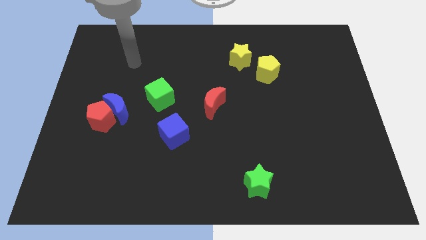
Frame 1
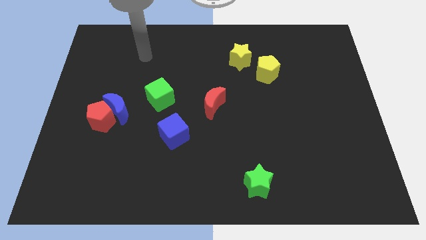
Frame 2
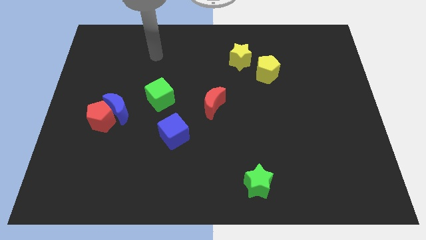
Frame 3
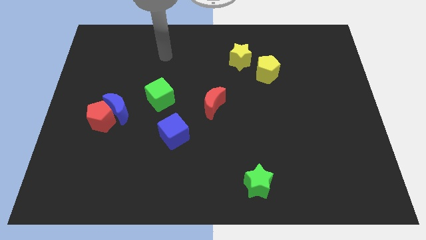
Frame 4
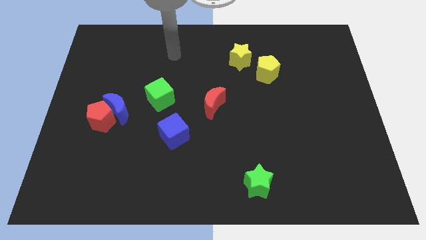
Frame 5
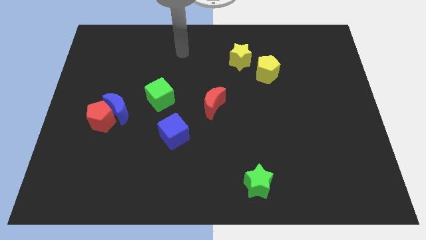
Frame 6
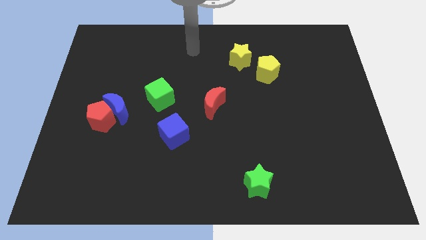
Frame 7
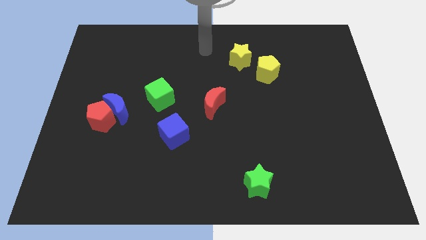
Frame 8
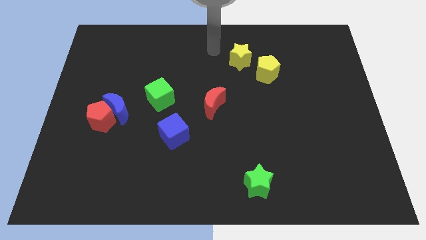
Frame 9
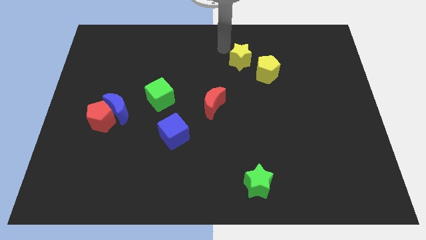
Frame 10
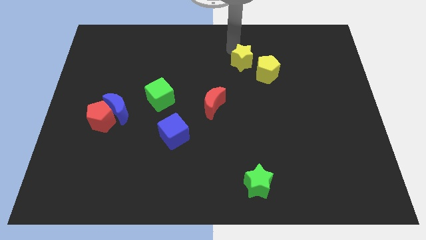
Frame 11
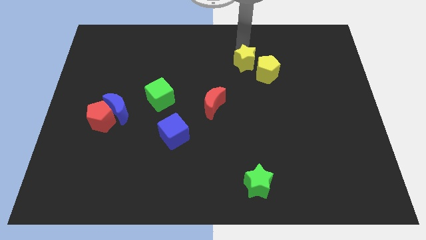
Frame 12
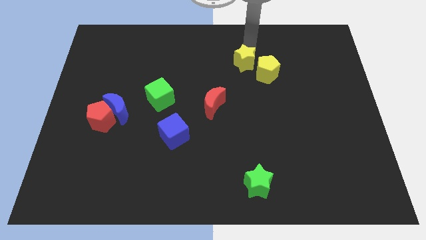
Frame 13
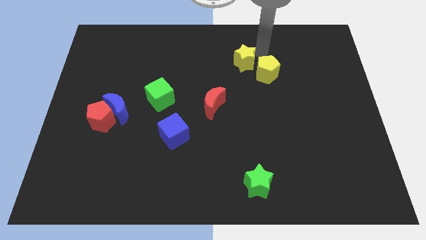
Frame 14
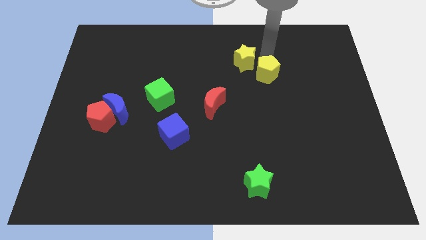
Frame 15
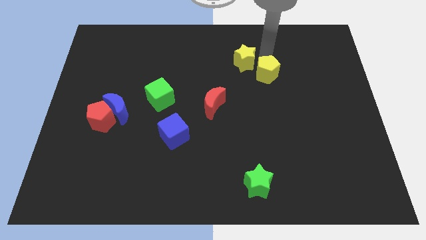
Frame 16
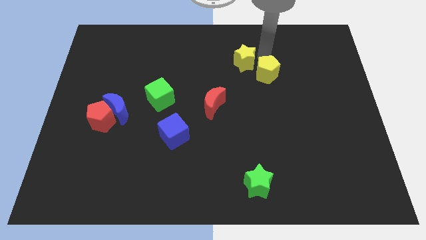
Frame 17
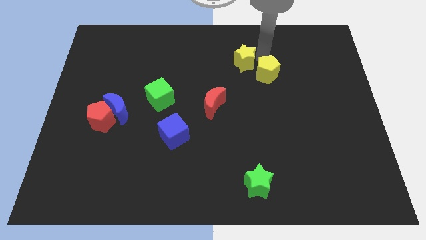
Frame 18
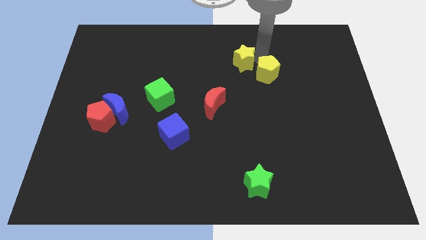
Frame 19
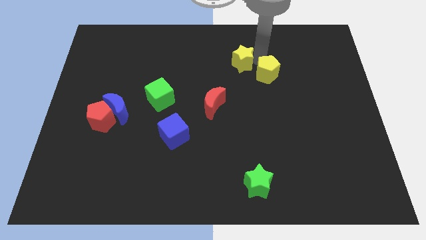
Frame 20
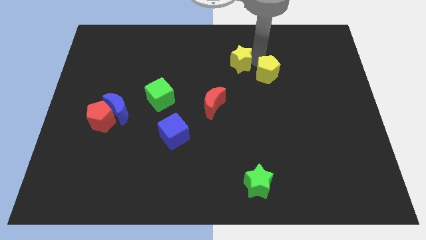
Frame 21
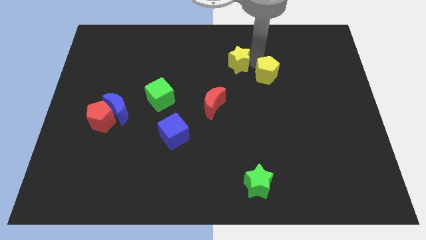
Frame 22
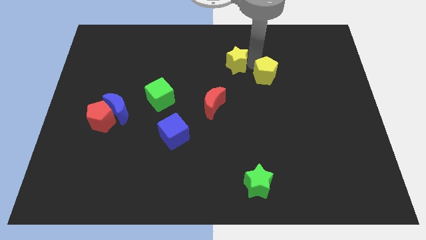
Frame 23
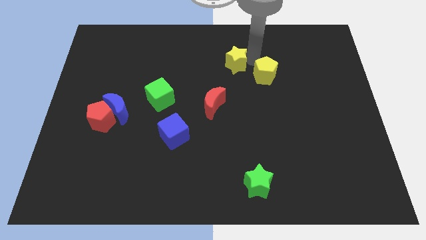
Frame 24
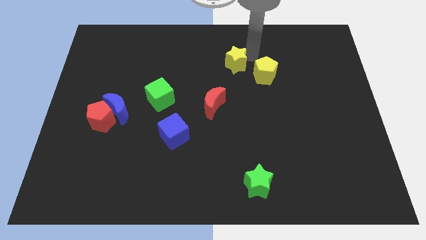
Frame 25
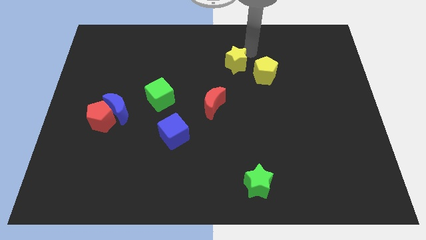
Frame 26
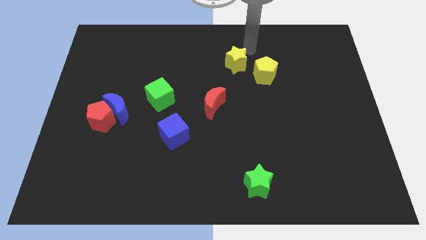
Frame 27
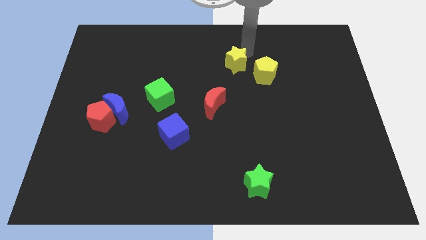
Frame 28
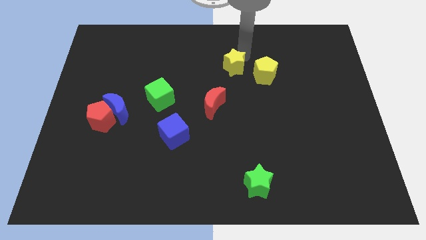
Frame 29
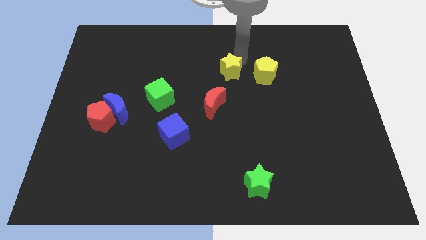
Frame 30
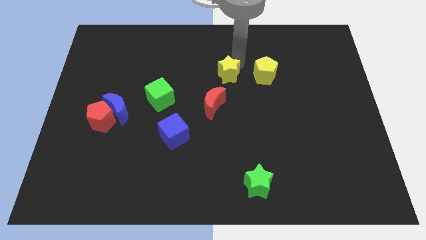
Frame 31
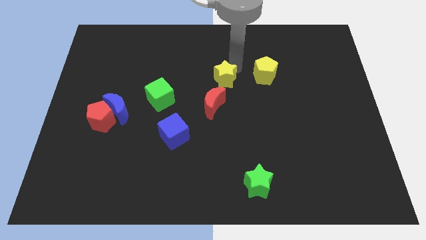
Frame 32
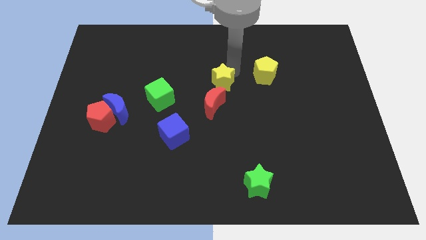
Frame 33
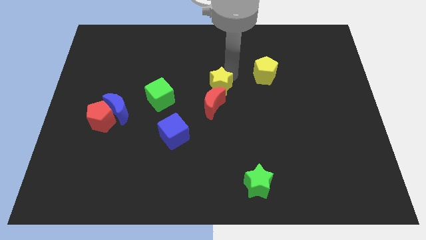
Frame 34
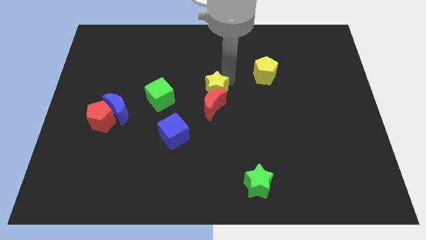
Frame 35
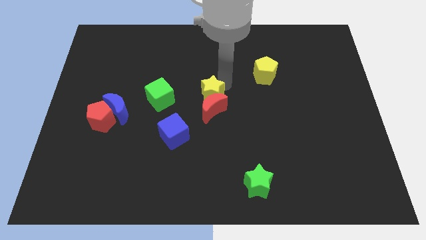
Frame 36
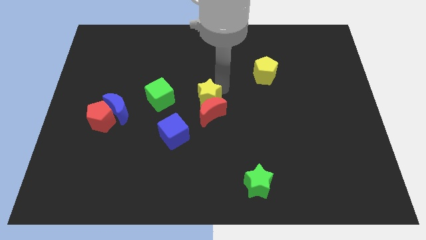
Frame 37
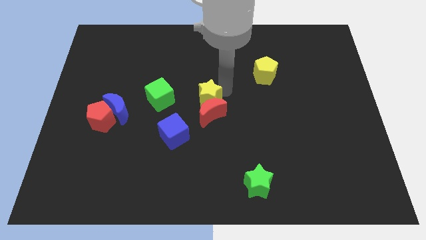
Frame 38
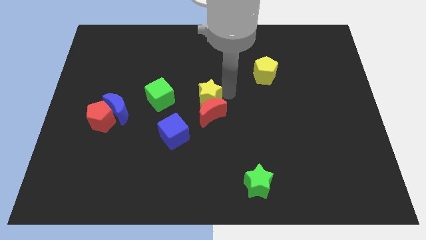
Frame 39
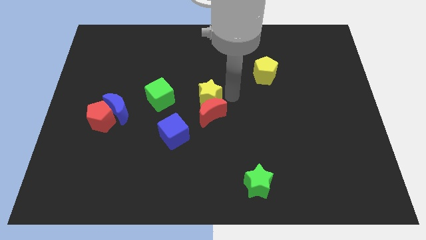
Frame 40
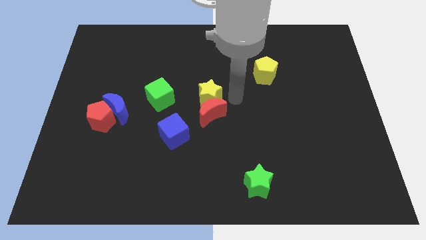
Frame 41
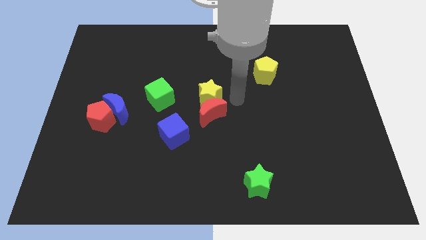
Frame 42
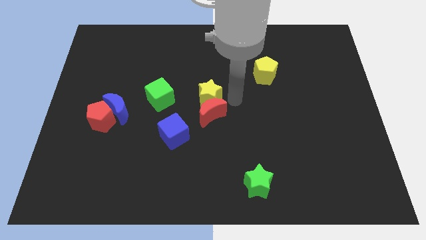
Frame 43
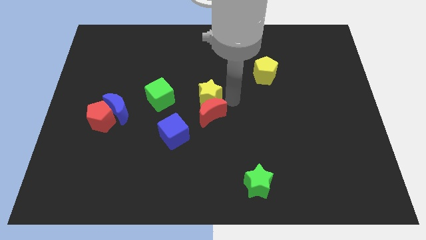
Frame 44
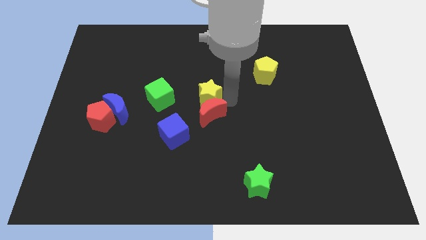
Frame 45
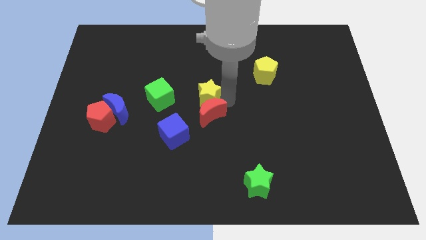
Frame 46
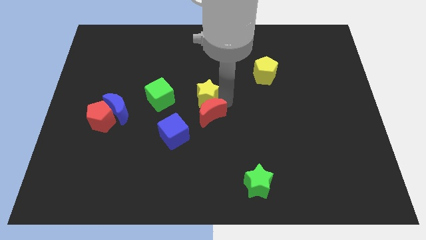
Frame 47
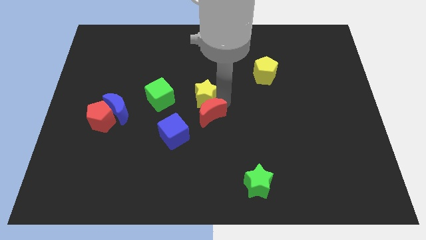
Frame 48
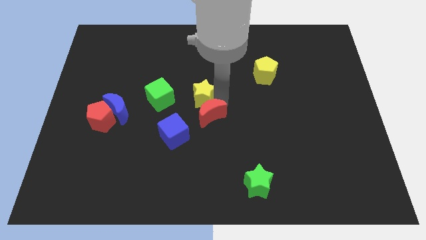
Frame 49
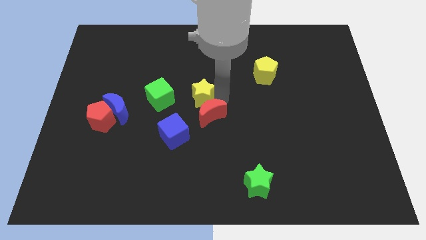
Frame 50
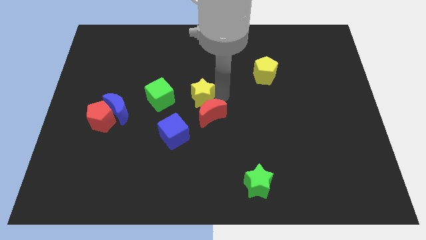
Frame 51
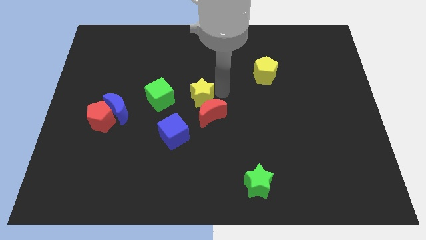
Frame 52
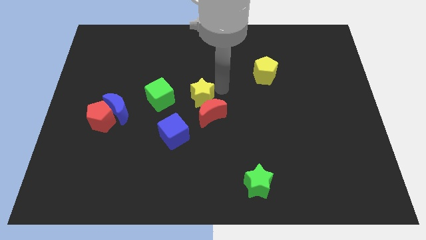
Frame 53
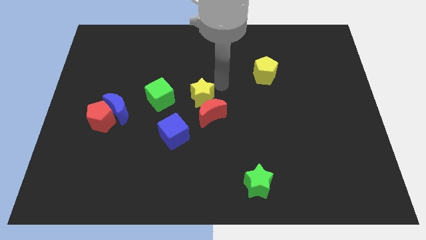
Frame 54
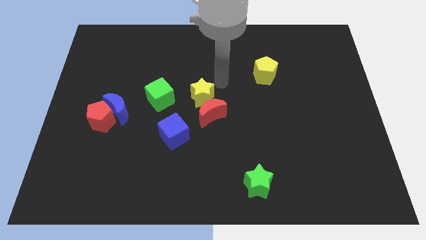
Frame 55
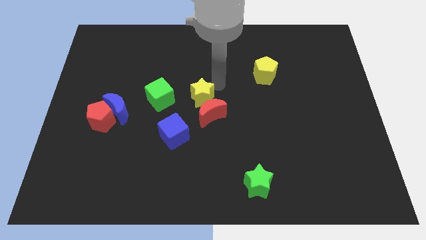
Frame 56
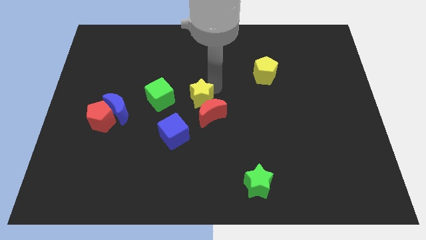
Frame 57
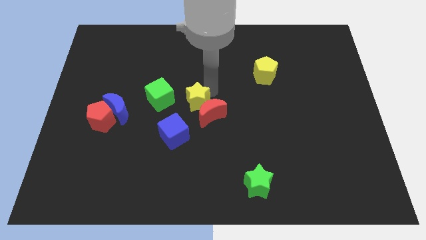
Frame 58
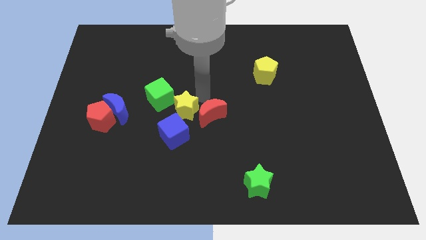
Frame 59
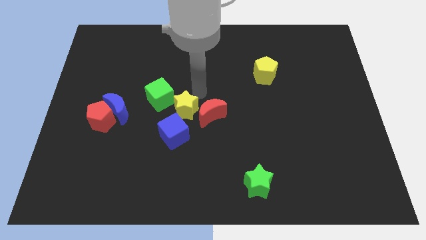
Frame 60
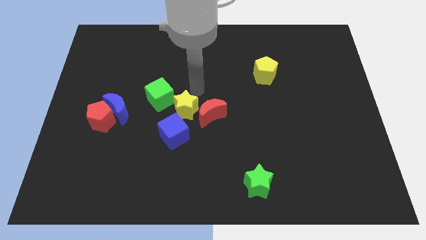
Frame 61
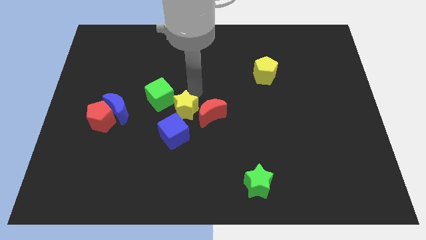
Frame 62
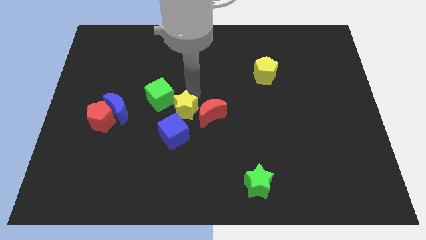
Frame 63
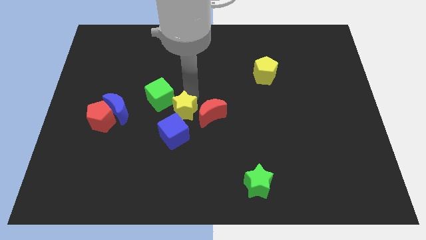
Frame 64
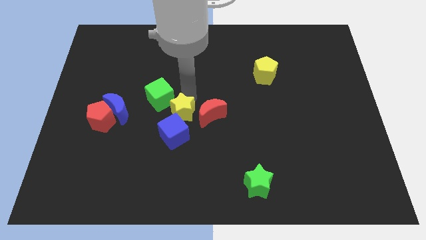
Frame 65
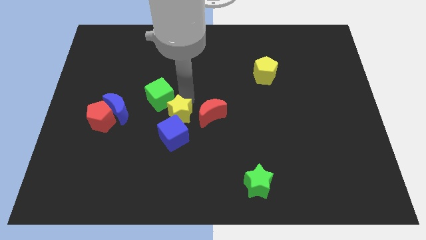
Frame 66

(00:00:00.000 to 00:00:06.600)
move the yellow star to the blue cube

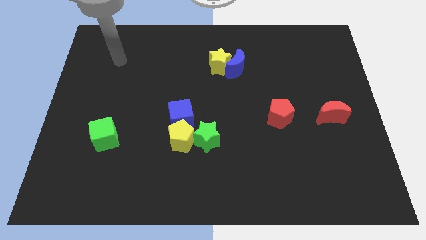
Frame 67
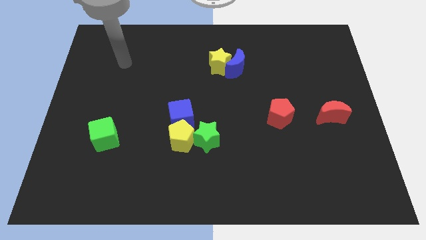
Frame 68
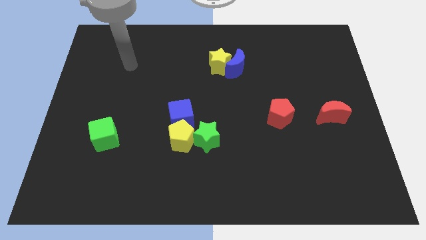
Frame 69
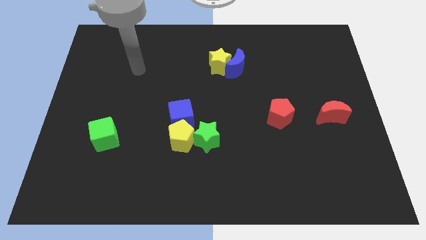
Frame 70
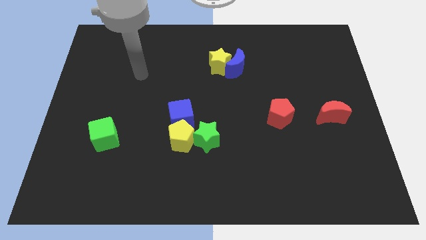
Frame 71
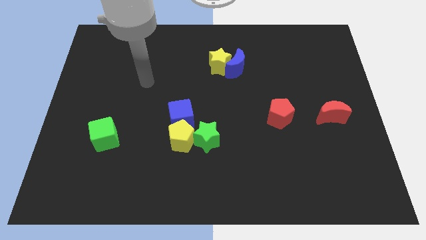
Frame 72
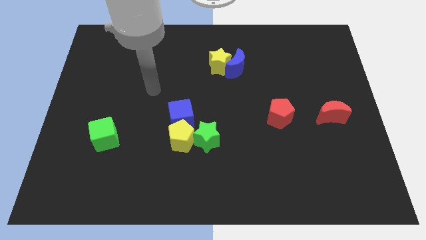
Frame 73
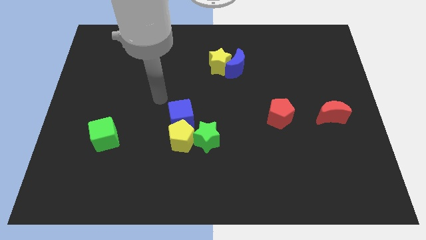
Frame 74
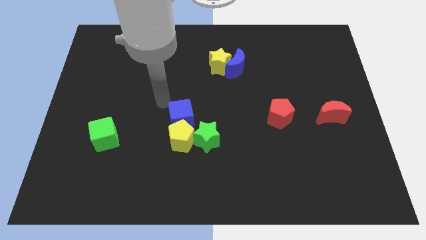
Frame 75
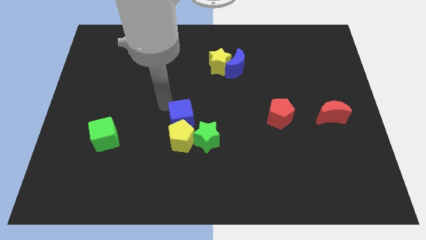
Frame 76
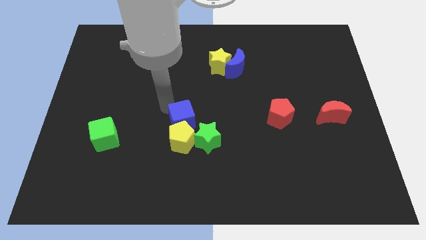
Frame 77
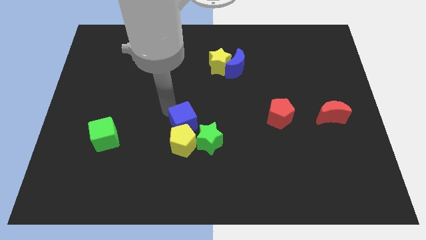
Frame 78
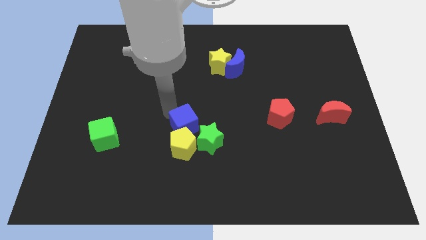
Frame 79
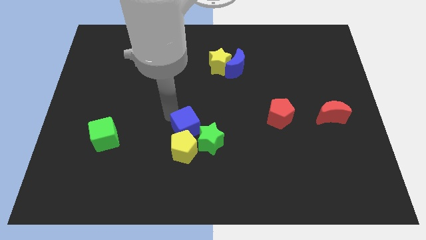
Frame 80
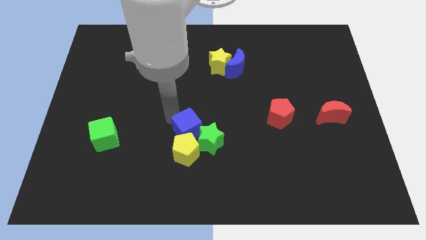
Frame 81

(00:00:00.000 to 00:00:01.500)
move the blue cube to the green star
